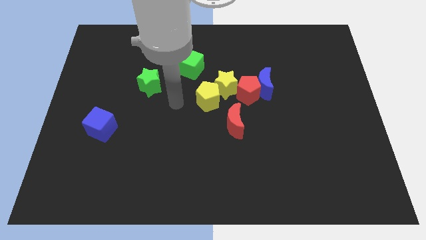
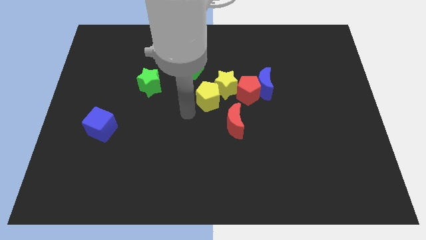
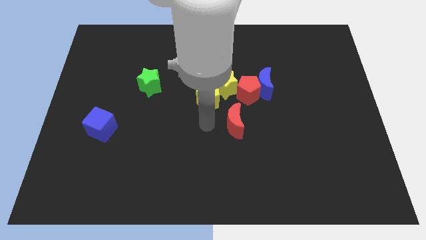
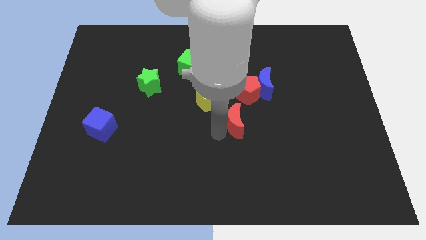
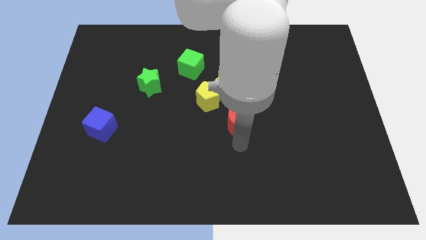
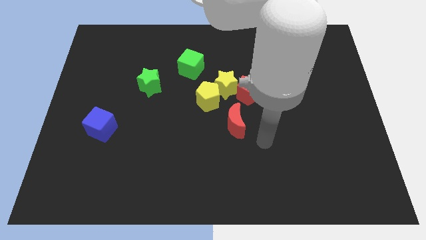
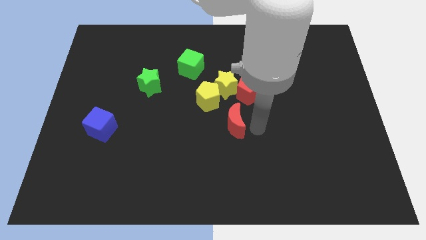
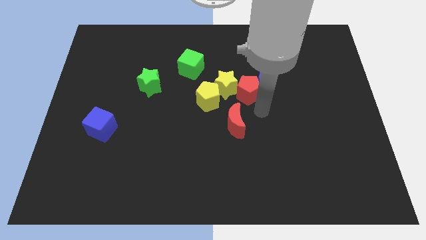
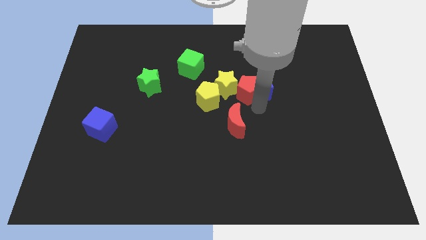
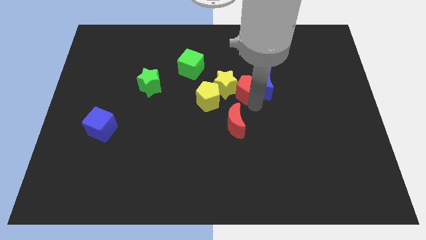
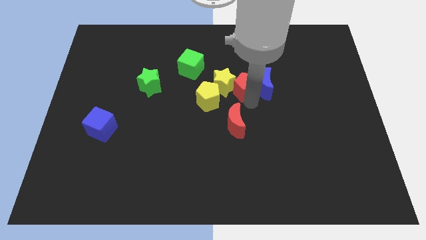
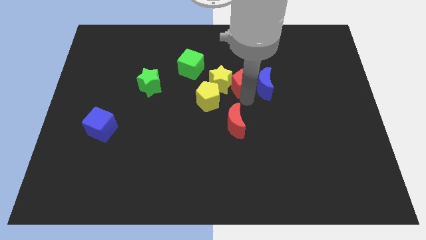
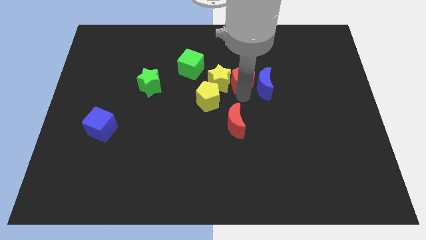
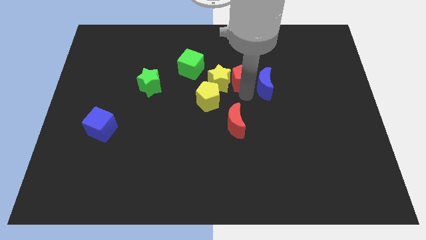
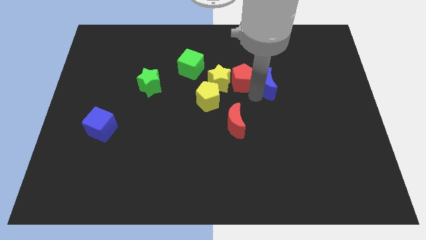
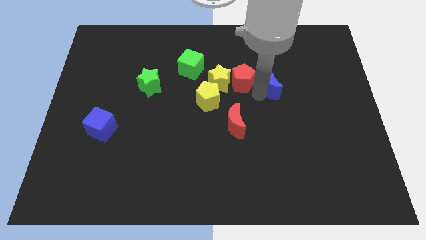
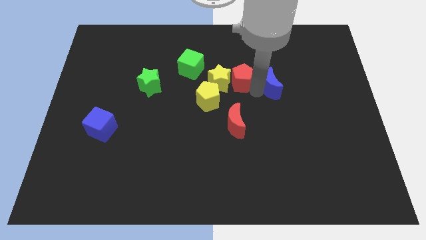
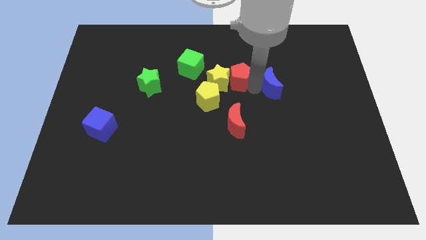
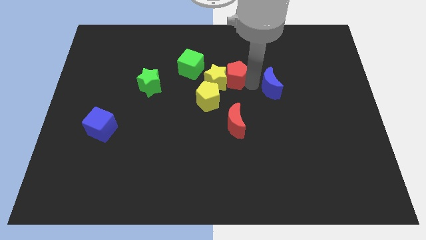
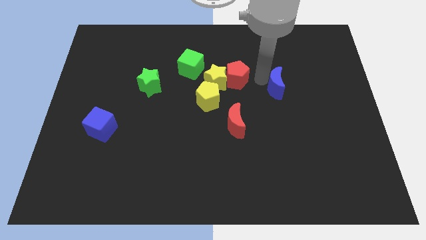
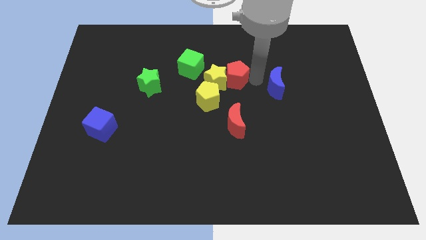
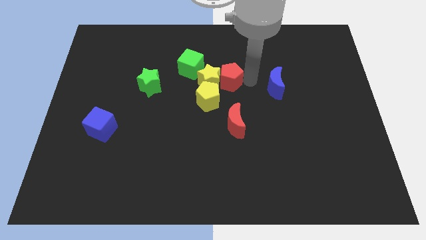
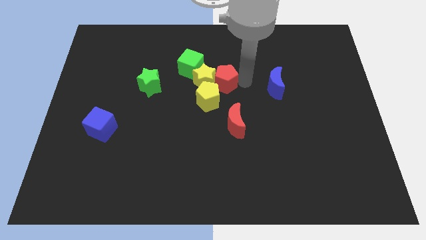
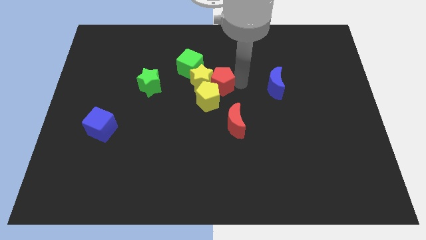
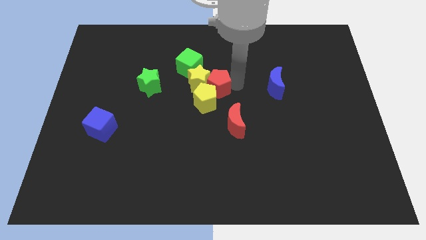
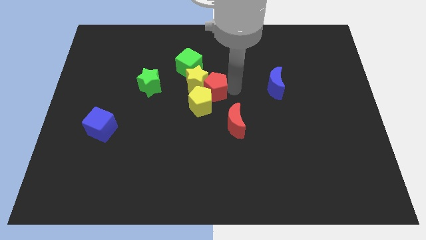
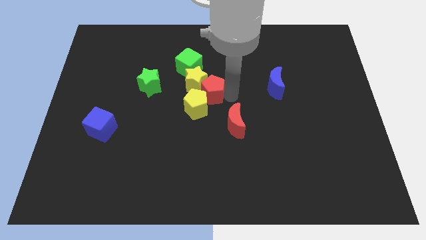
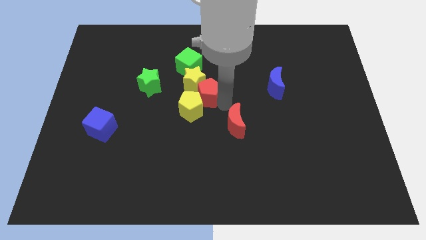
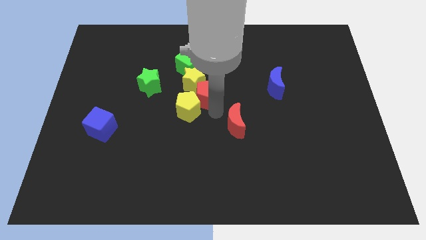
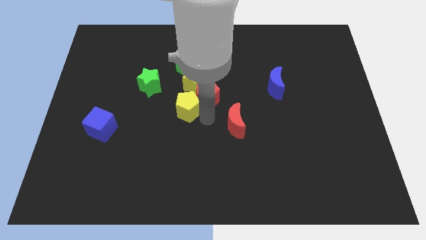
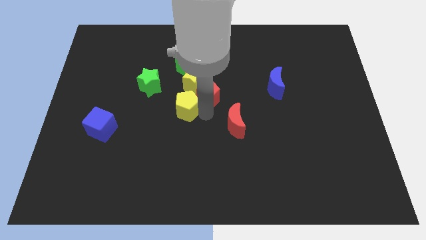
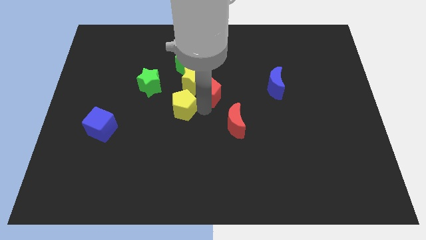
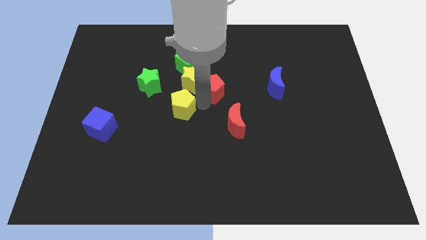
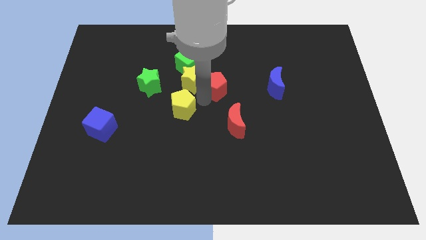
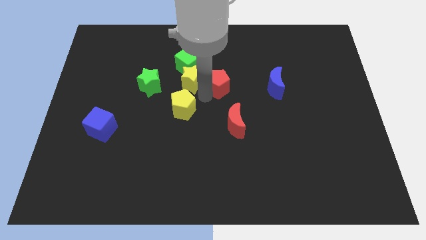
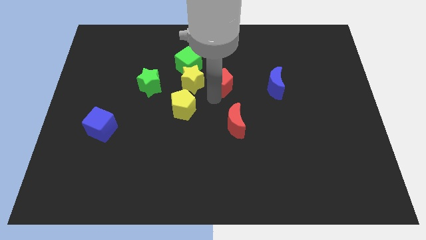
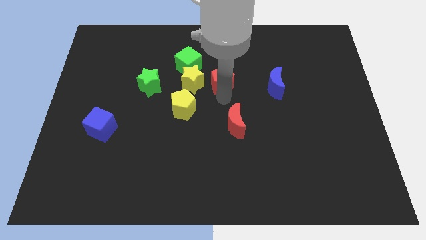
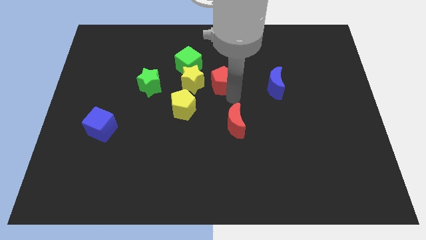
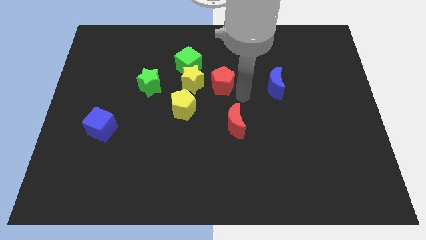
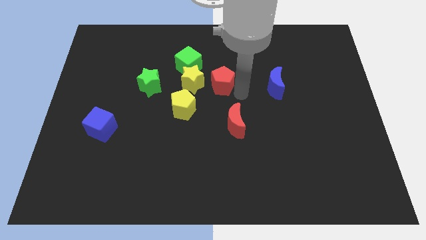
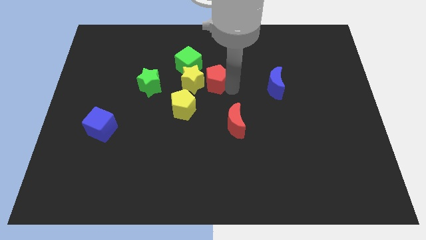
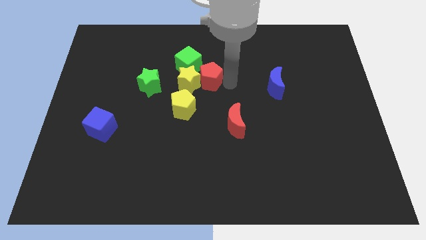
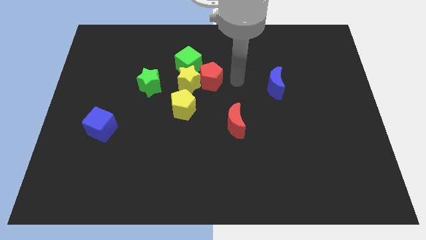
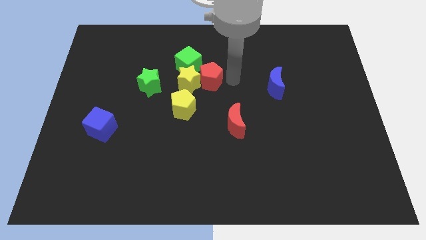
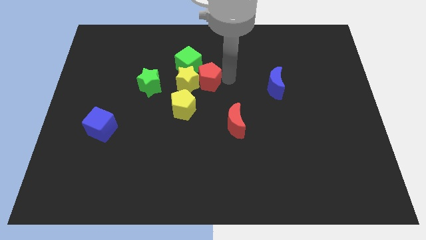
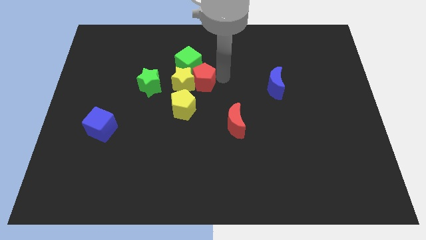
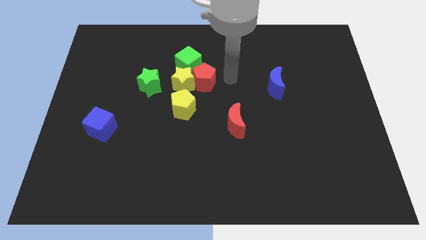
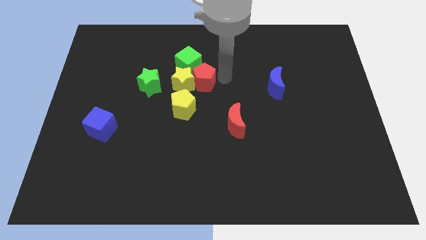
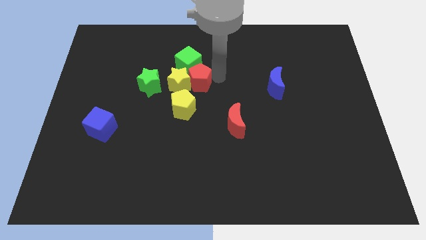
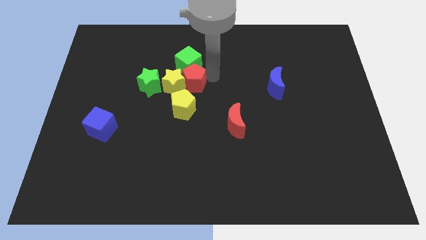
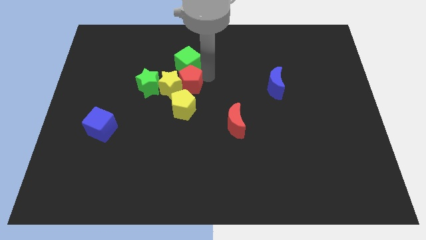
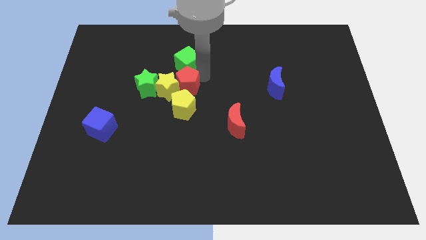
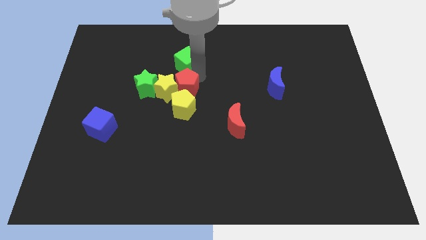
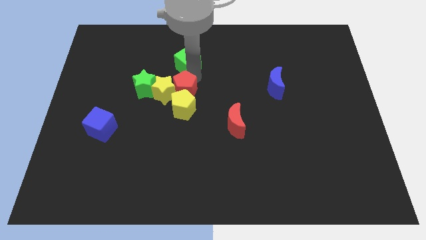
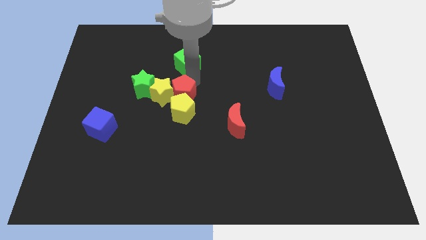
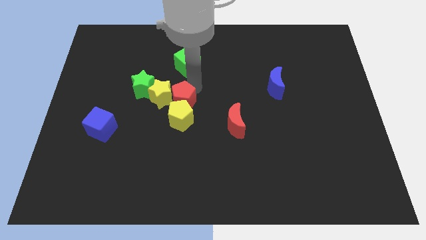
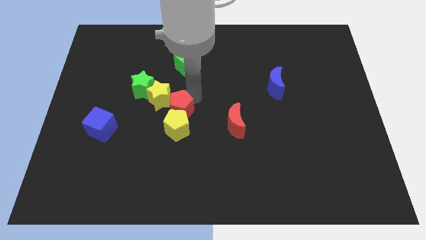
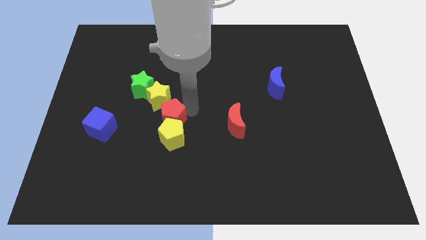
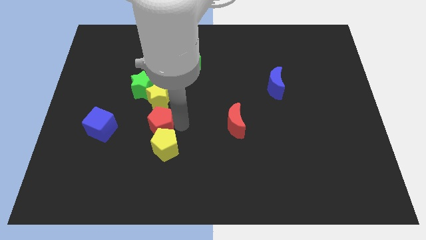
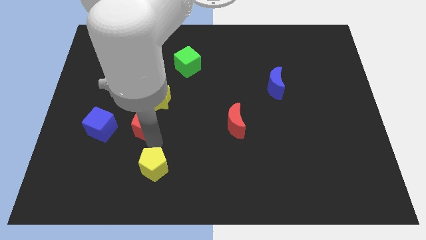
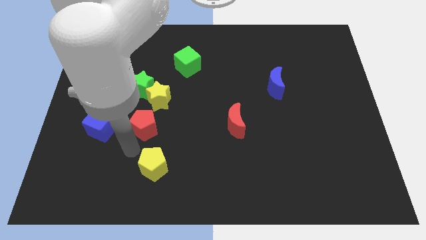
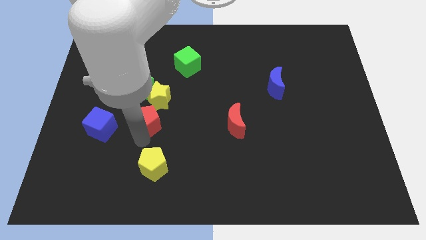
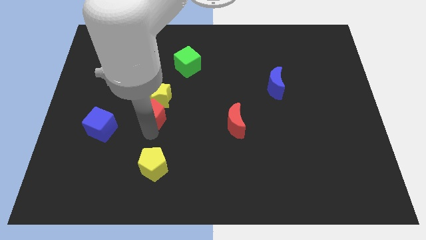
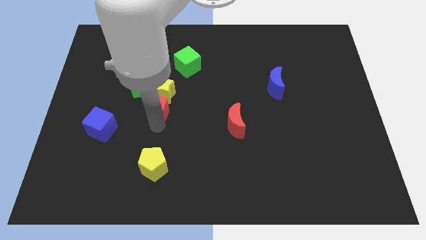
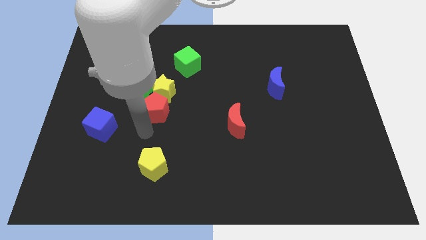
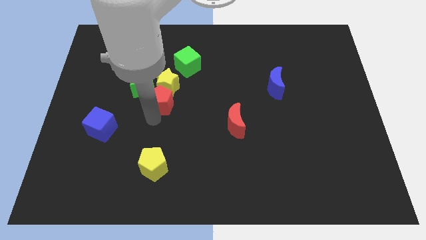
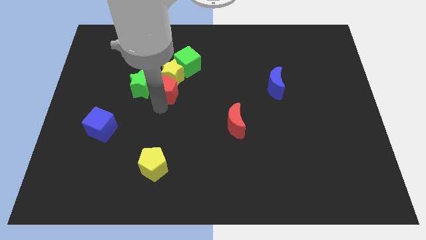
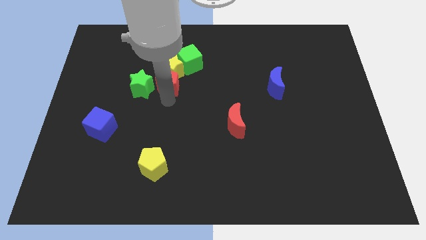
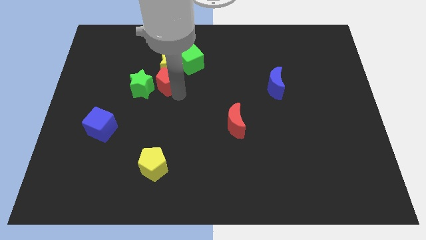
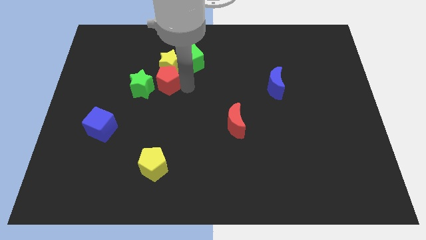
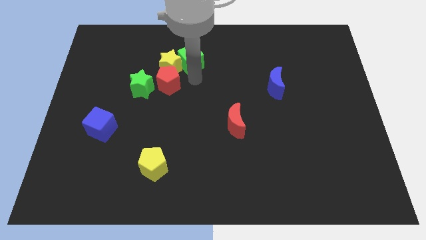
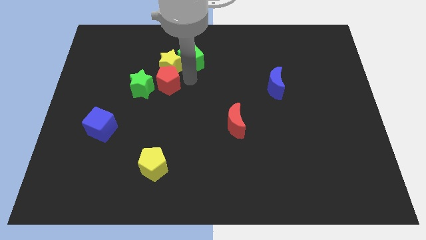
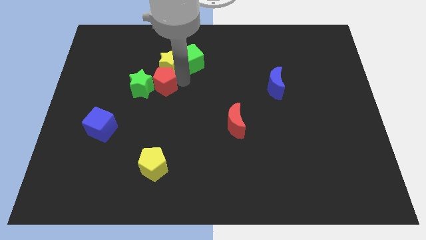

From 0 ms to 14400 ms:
slide the red pentagon close to the green star
